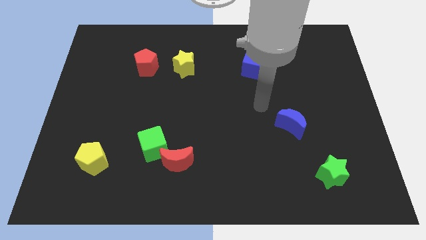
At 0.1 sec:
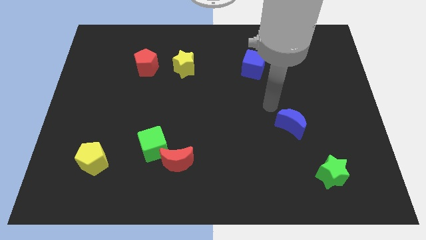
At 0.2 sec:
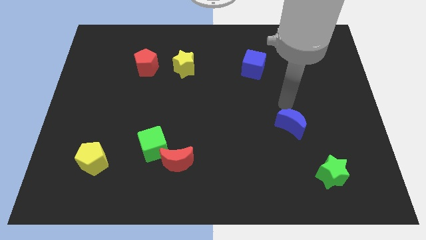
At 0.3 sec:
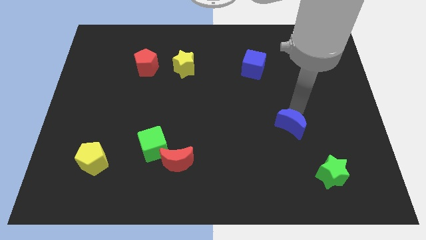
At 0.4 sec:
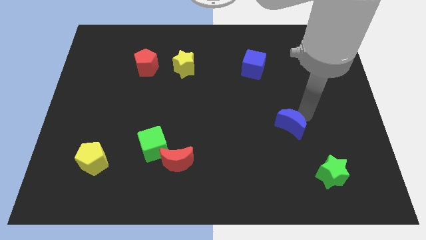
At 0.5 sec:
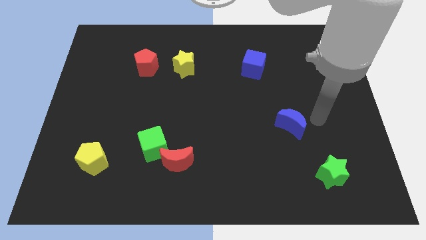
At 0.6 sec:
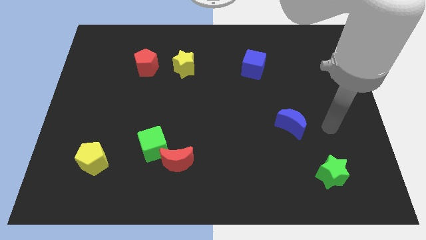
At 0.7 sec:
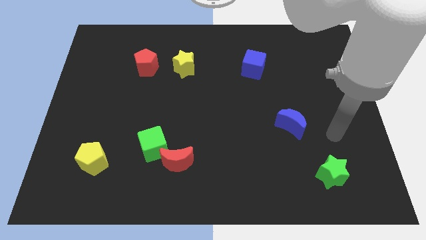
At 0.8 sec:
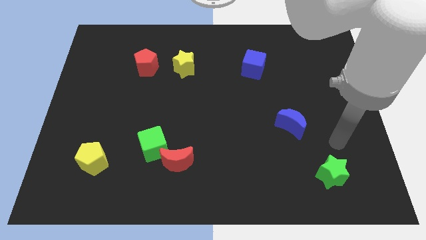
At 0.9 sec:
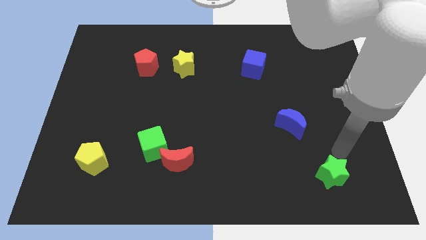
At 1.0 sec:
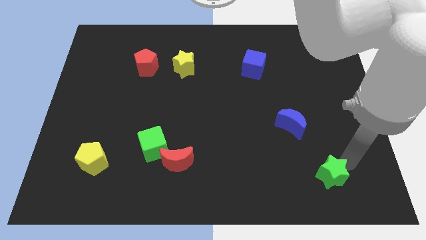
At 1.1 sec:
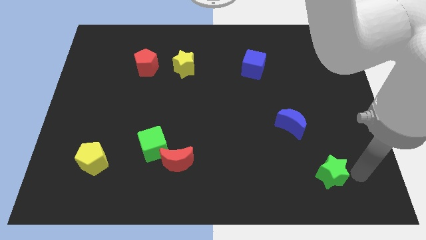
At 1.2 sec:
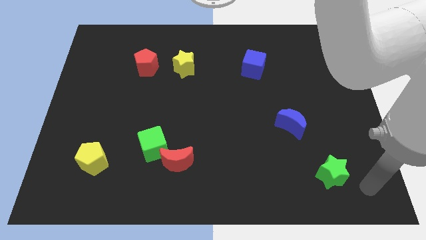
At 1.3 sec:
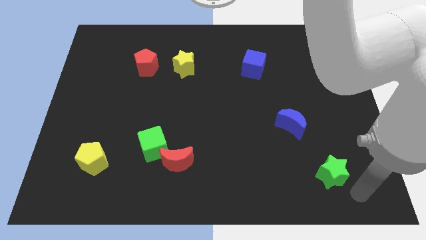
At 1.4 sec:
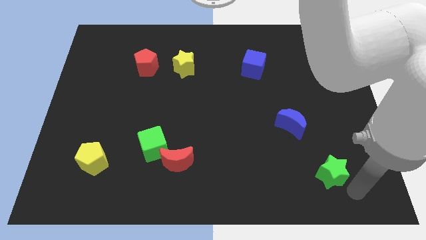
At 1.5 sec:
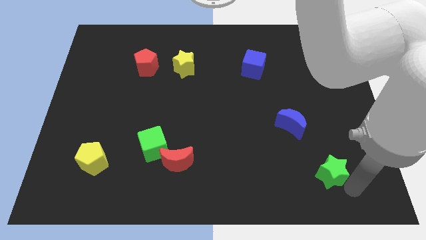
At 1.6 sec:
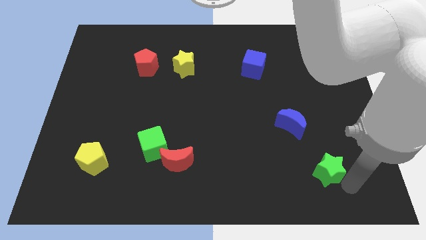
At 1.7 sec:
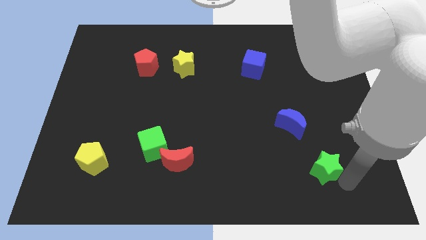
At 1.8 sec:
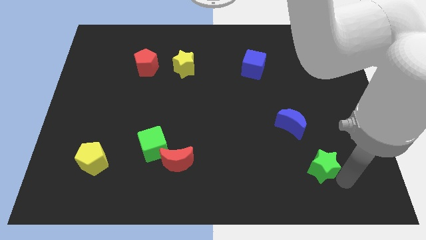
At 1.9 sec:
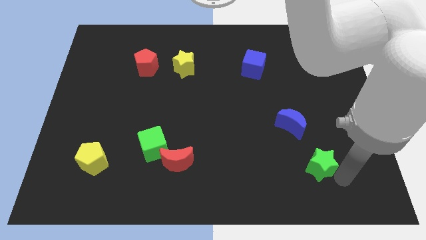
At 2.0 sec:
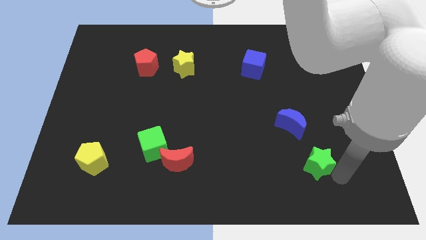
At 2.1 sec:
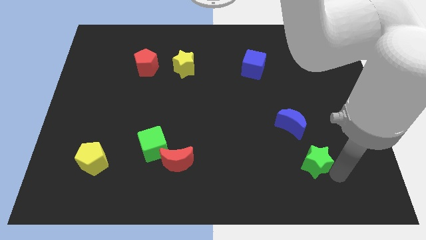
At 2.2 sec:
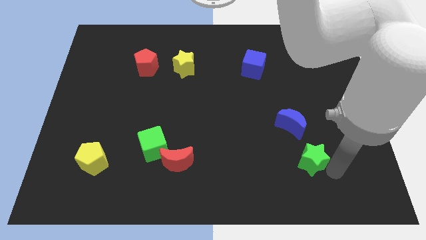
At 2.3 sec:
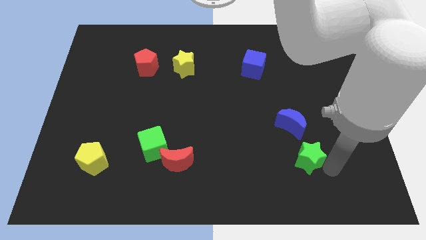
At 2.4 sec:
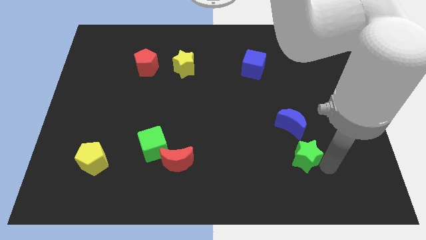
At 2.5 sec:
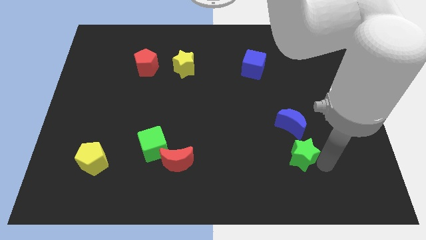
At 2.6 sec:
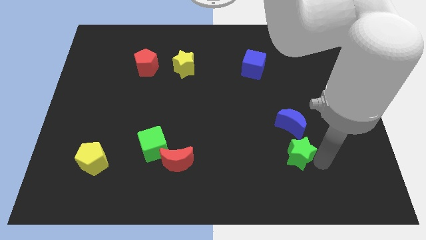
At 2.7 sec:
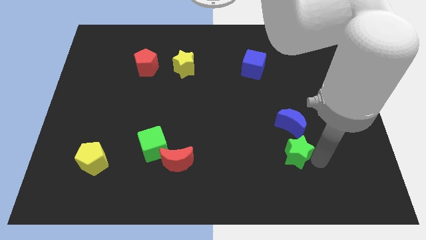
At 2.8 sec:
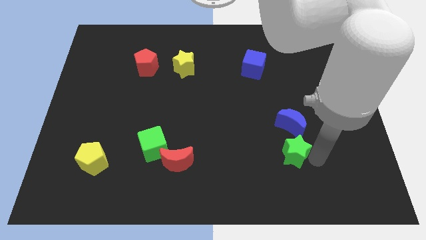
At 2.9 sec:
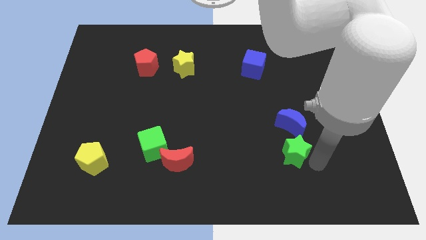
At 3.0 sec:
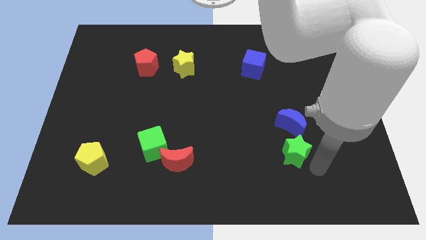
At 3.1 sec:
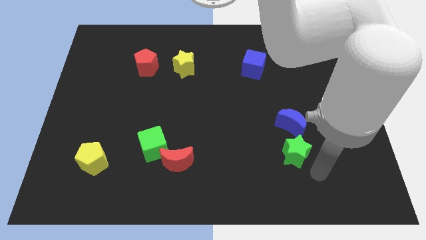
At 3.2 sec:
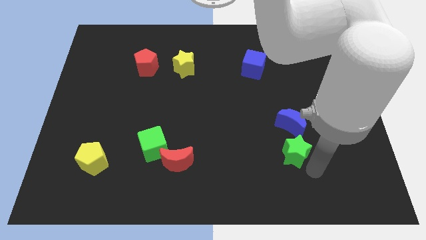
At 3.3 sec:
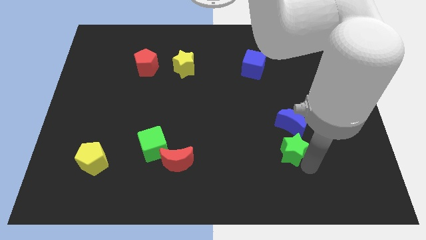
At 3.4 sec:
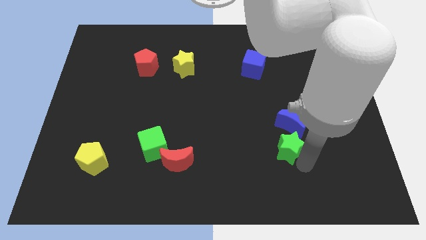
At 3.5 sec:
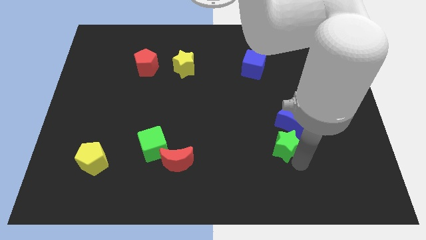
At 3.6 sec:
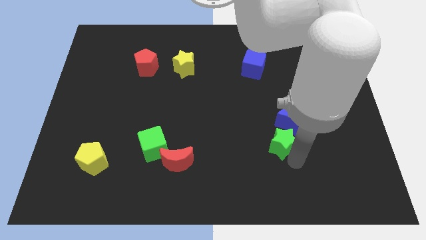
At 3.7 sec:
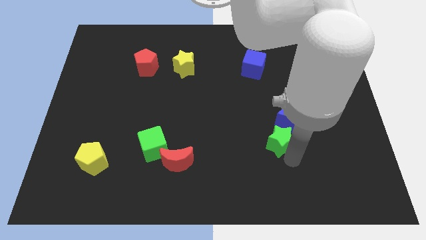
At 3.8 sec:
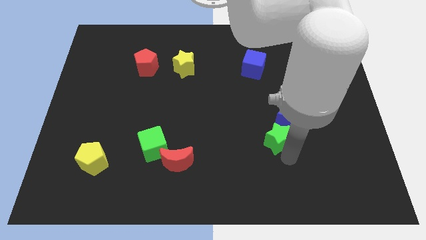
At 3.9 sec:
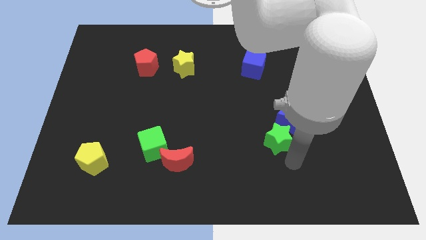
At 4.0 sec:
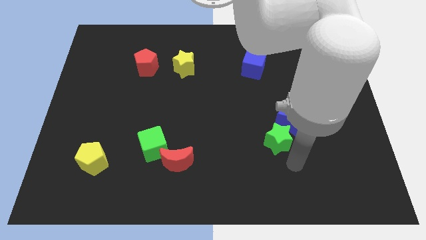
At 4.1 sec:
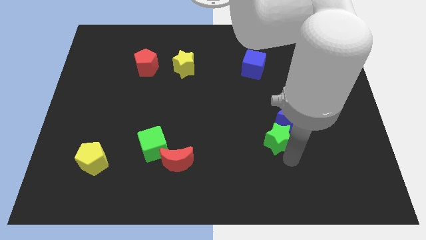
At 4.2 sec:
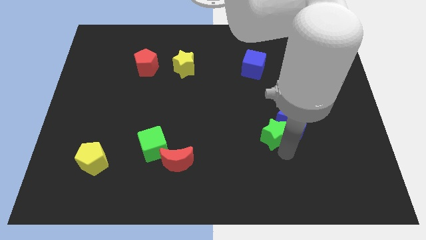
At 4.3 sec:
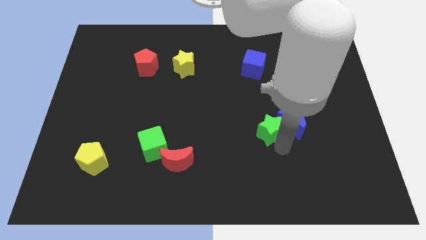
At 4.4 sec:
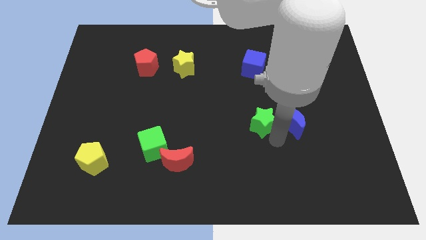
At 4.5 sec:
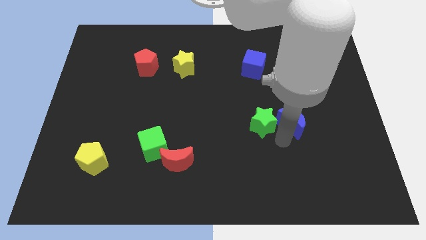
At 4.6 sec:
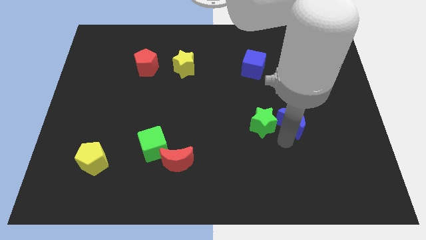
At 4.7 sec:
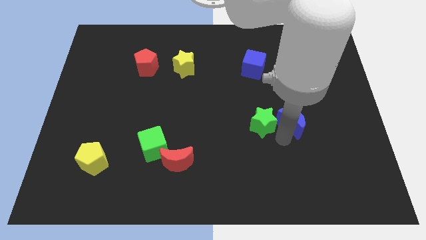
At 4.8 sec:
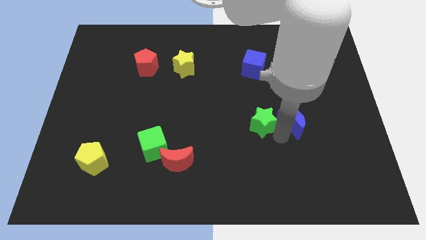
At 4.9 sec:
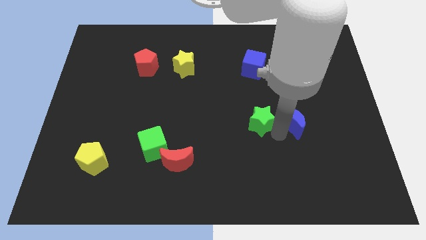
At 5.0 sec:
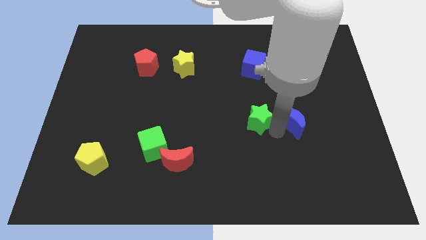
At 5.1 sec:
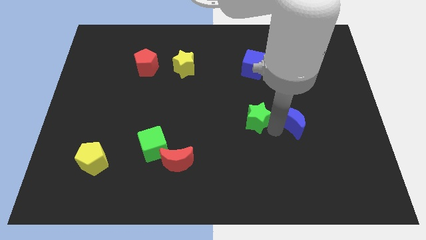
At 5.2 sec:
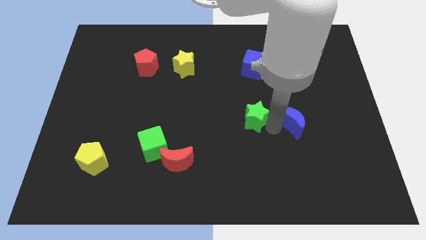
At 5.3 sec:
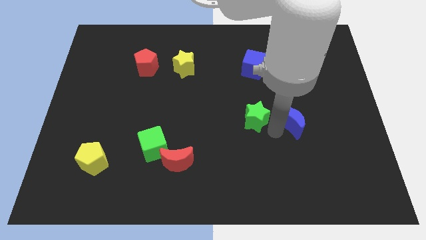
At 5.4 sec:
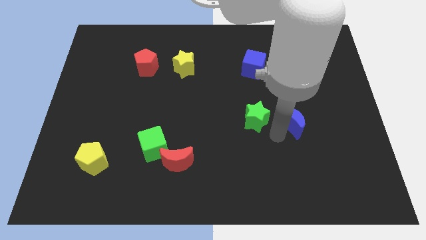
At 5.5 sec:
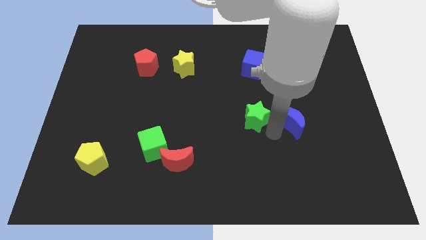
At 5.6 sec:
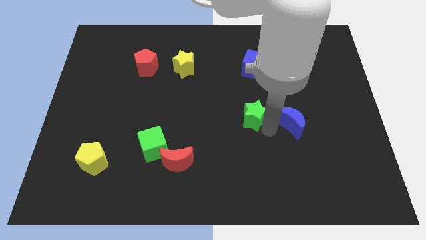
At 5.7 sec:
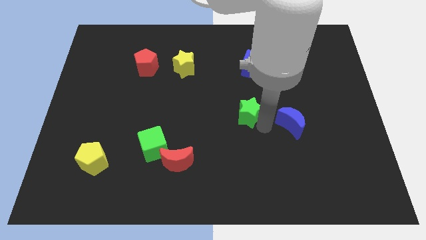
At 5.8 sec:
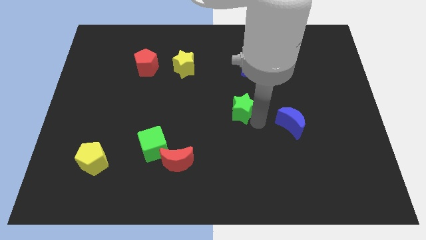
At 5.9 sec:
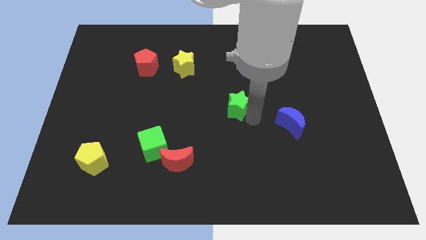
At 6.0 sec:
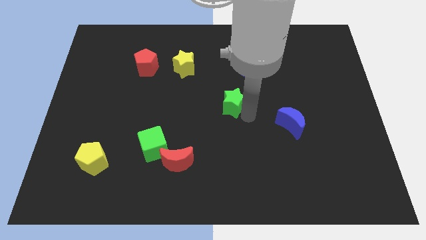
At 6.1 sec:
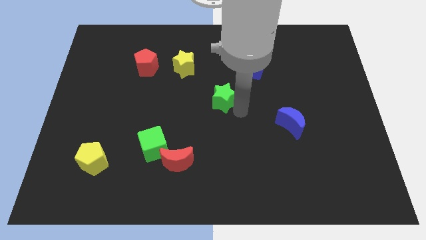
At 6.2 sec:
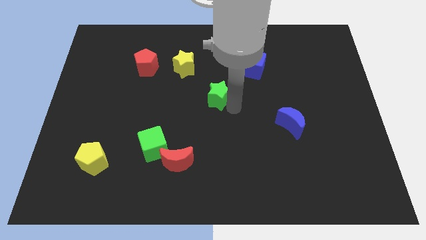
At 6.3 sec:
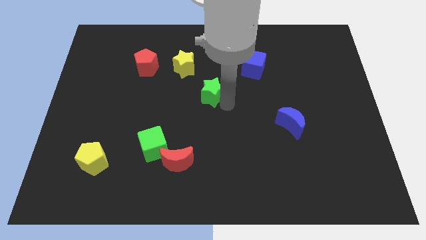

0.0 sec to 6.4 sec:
put the green star to the bottom right side of the yellow star
